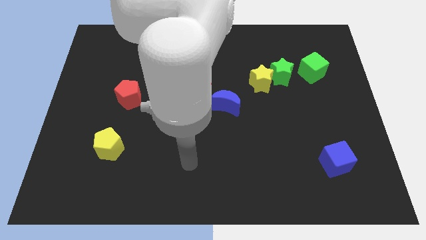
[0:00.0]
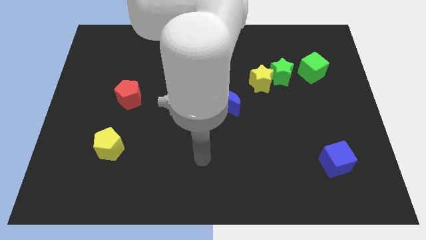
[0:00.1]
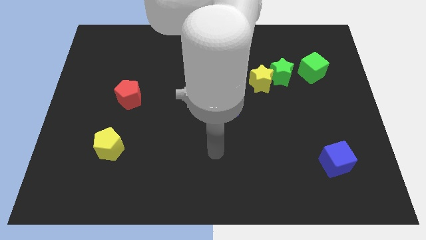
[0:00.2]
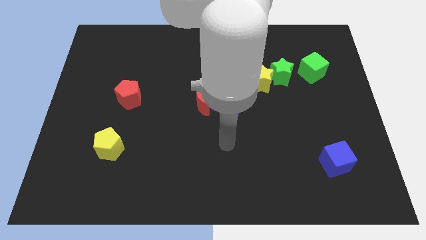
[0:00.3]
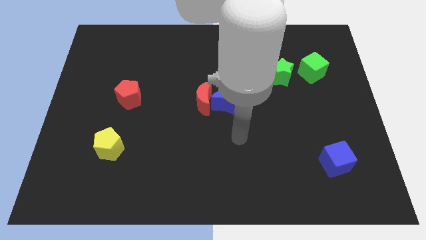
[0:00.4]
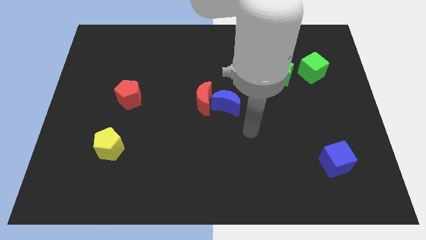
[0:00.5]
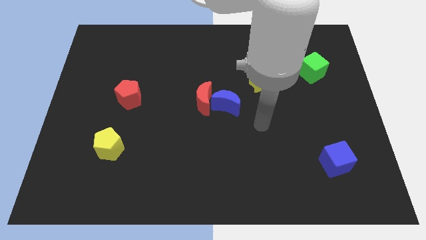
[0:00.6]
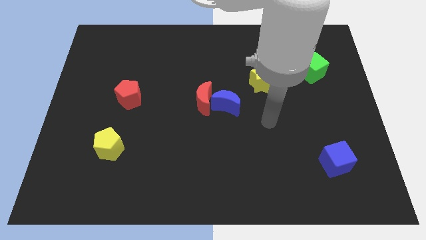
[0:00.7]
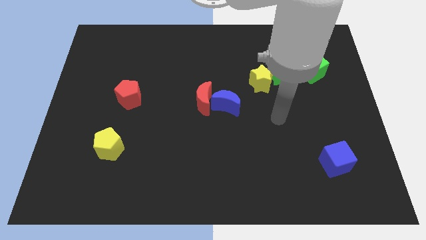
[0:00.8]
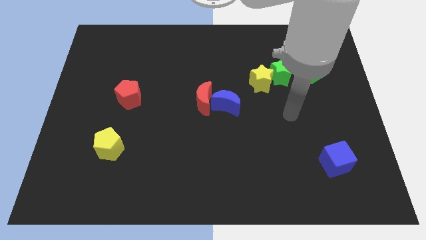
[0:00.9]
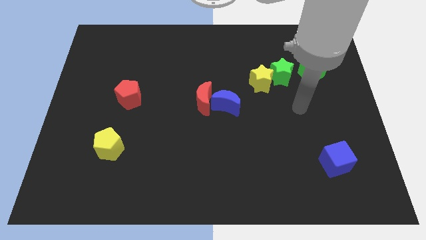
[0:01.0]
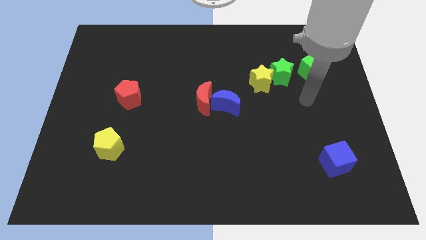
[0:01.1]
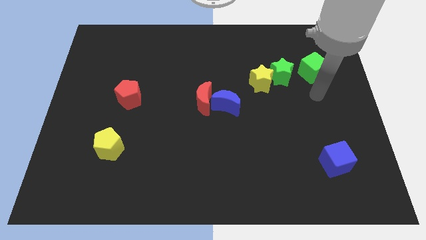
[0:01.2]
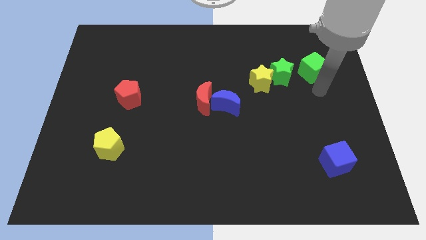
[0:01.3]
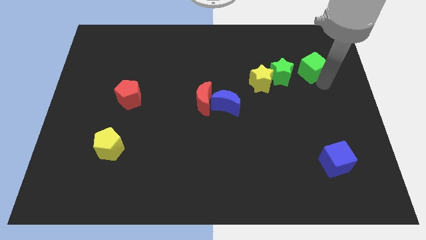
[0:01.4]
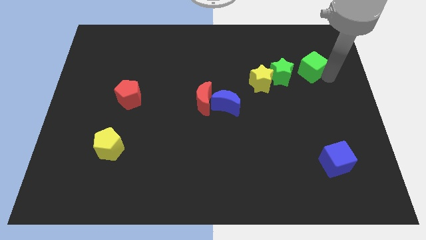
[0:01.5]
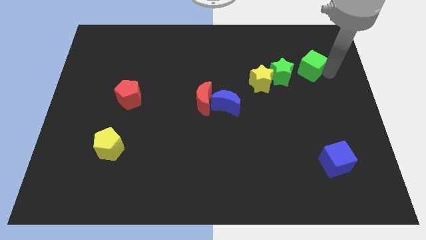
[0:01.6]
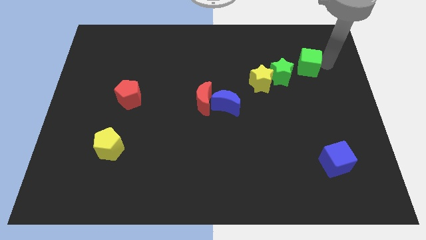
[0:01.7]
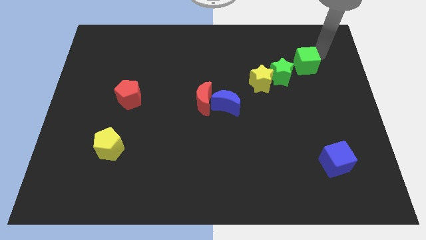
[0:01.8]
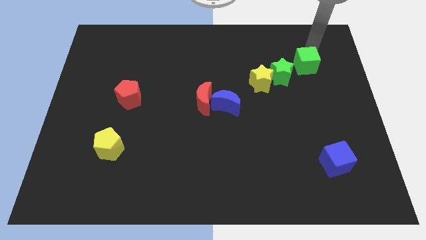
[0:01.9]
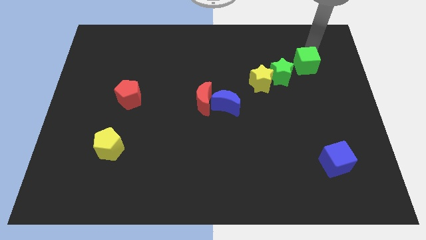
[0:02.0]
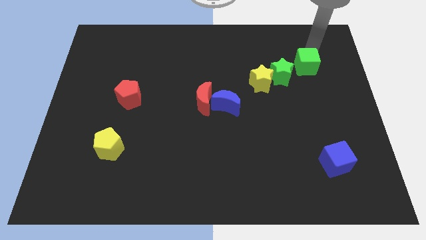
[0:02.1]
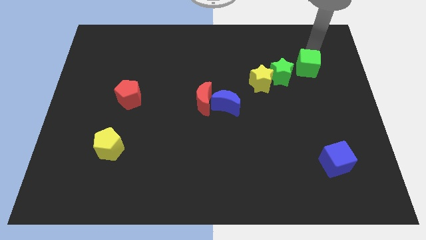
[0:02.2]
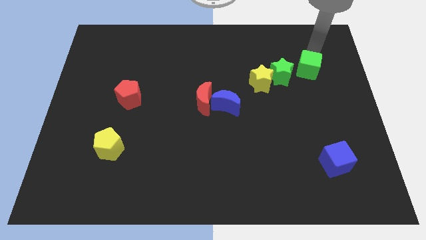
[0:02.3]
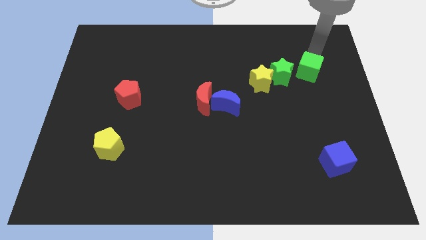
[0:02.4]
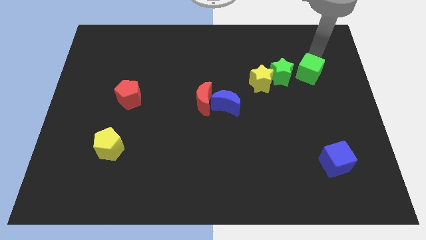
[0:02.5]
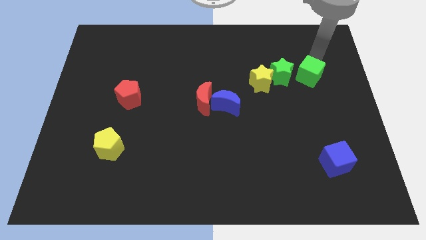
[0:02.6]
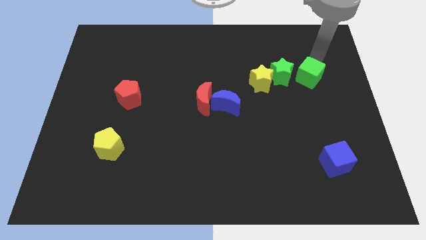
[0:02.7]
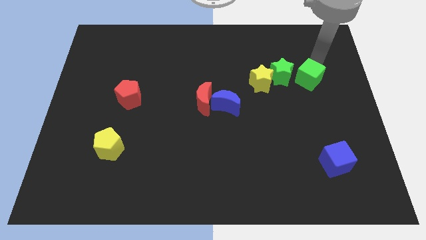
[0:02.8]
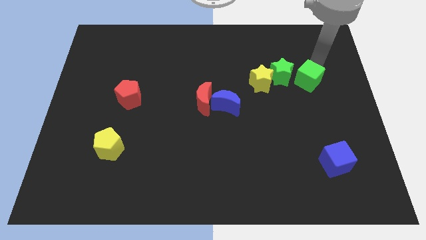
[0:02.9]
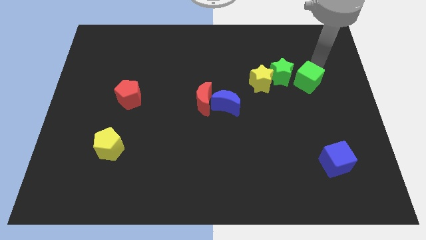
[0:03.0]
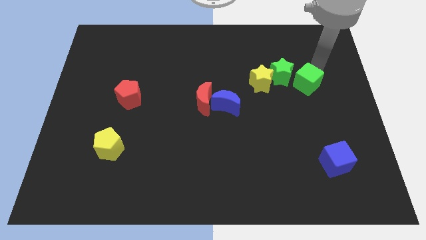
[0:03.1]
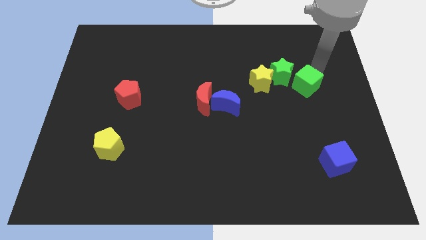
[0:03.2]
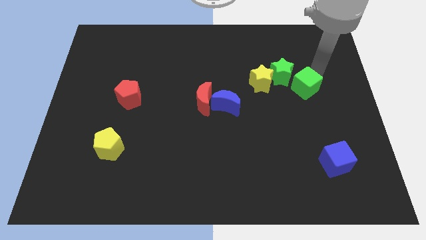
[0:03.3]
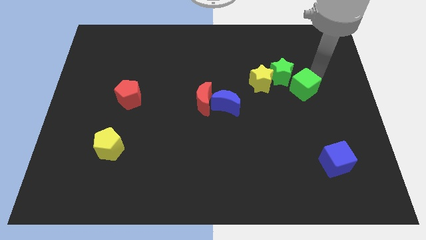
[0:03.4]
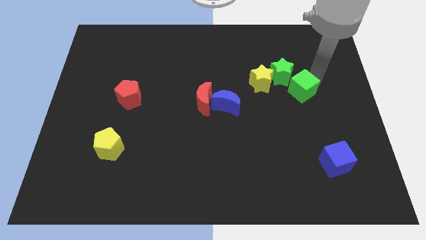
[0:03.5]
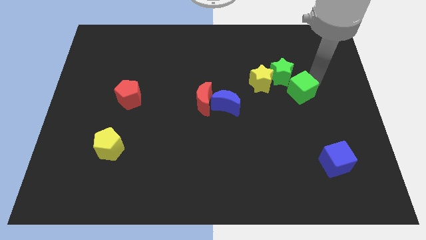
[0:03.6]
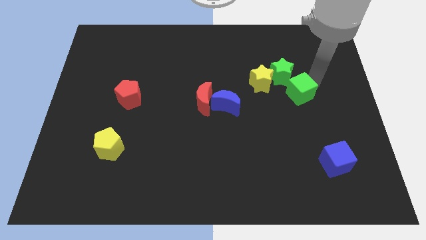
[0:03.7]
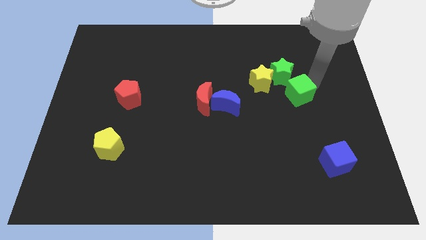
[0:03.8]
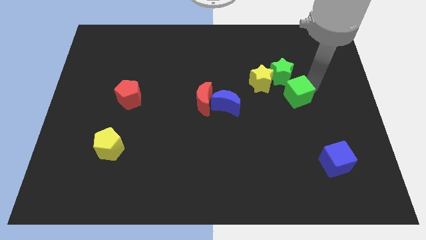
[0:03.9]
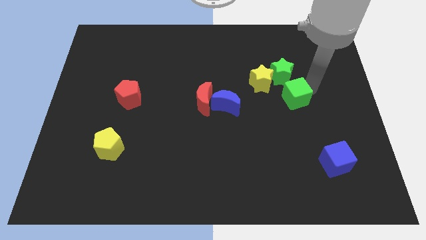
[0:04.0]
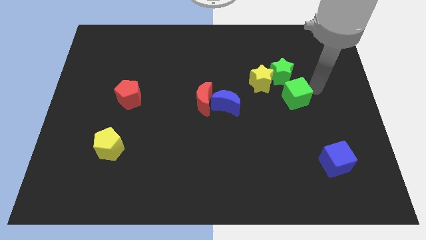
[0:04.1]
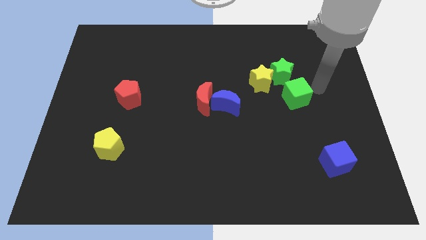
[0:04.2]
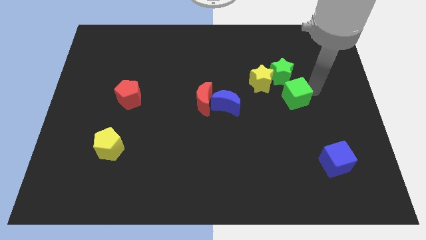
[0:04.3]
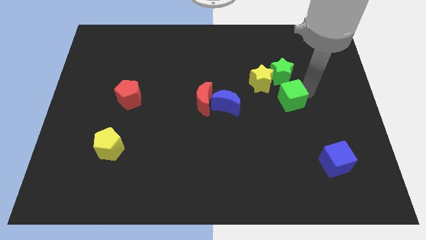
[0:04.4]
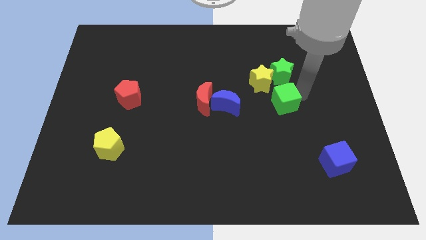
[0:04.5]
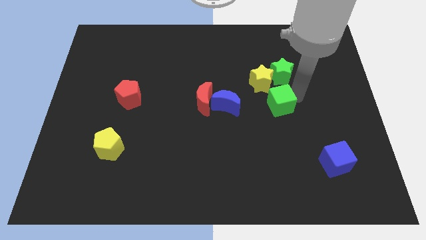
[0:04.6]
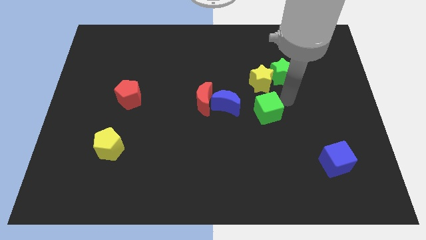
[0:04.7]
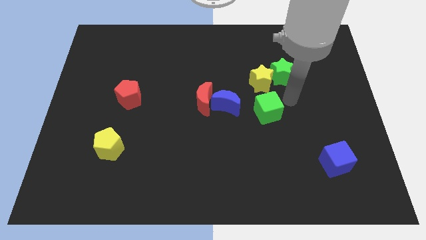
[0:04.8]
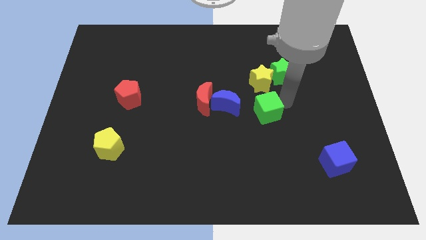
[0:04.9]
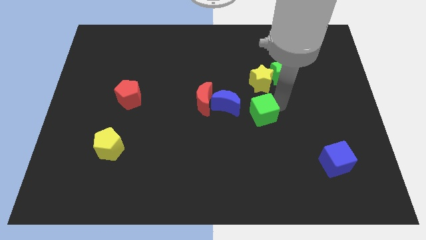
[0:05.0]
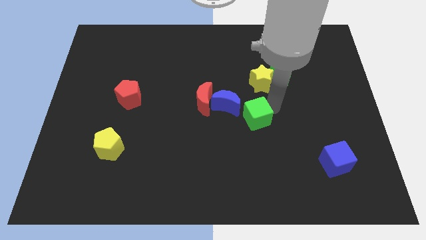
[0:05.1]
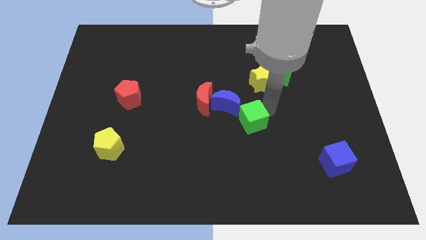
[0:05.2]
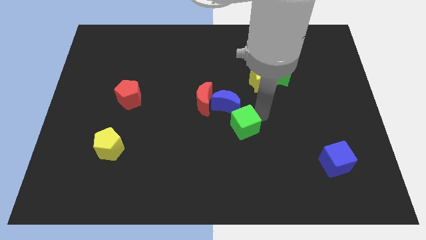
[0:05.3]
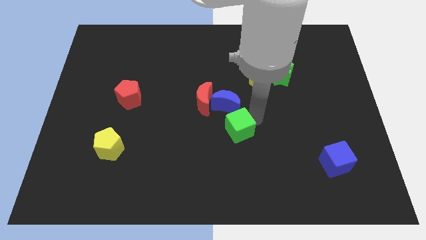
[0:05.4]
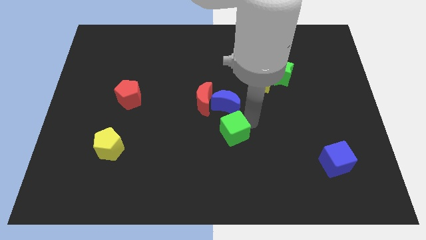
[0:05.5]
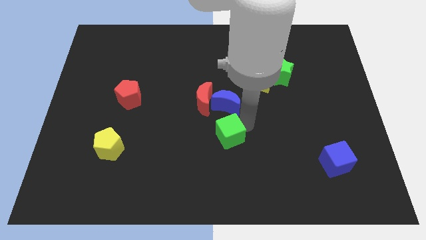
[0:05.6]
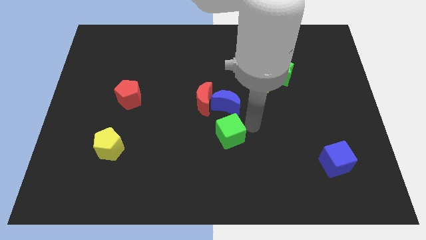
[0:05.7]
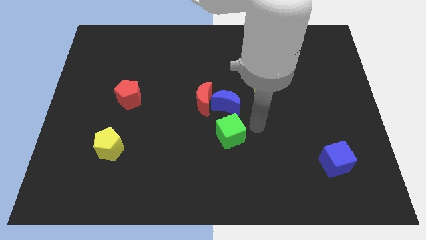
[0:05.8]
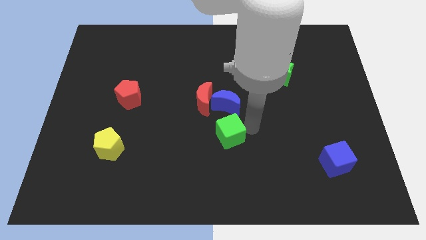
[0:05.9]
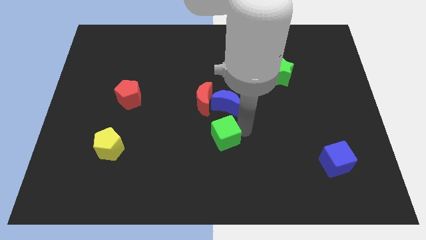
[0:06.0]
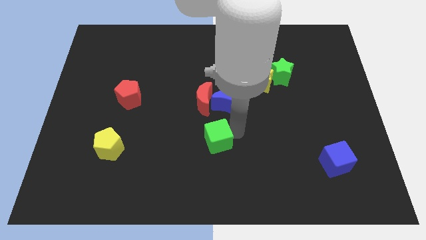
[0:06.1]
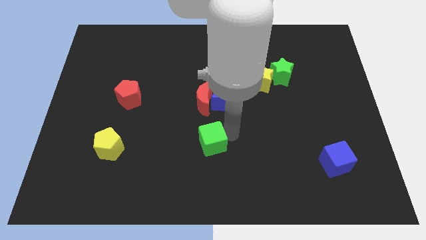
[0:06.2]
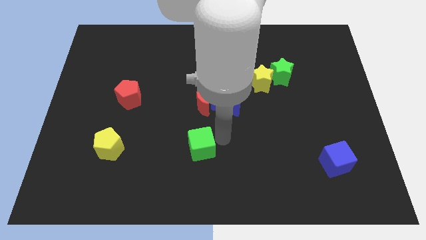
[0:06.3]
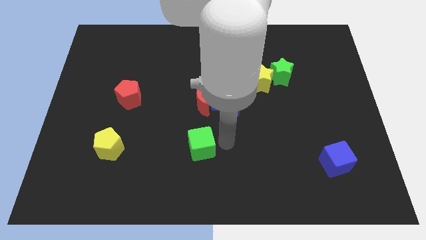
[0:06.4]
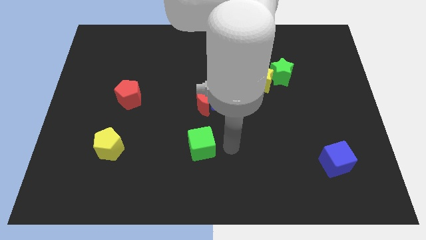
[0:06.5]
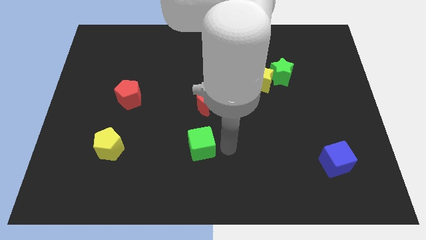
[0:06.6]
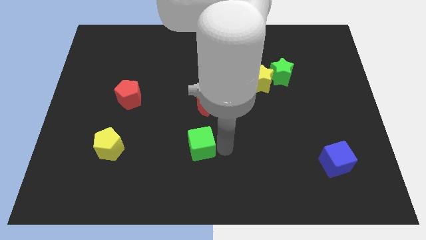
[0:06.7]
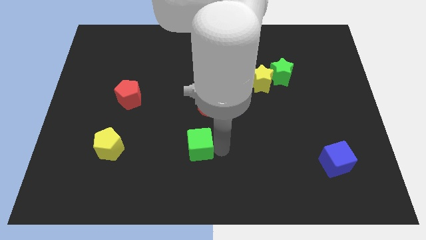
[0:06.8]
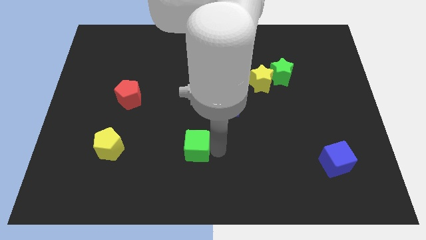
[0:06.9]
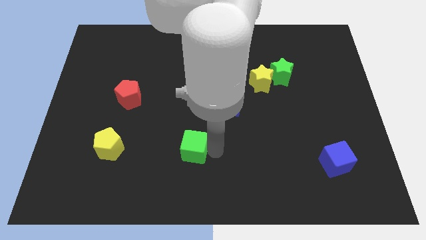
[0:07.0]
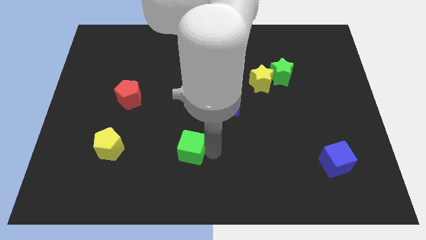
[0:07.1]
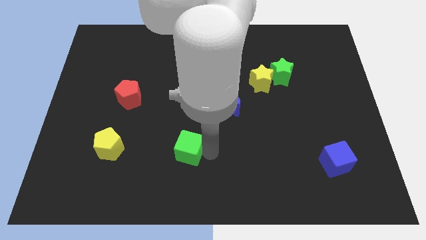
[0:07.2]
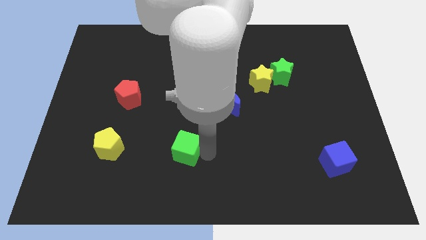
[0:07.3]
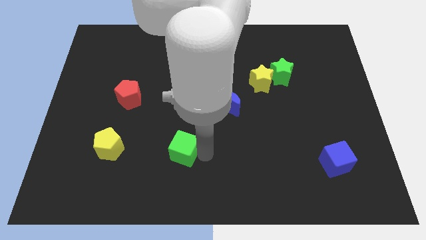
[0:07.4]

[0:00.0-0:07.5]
put the green cube right of the yellow pentagon
